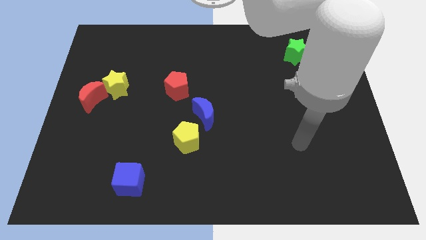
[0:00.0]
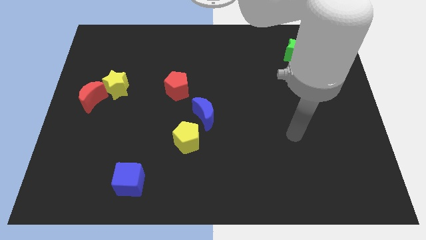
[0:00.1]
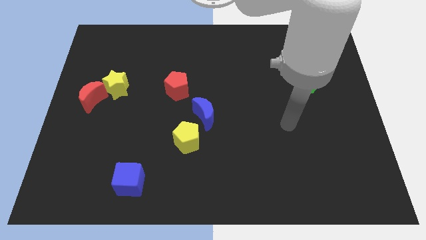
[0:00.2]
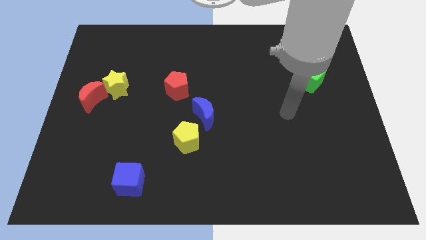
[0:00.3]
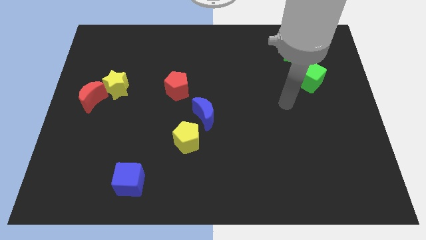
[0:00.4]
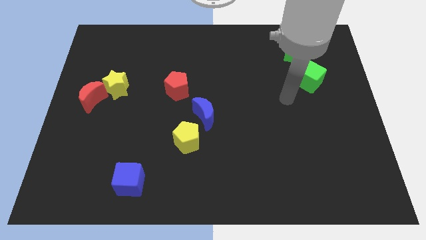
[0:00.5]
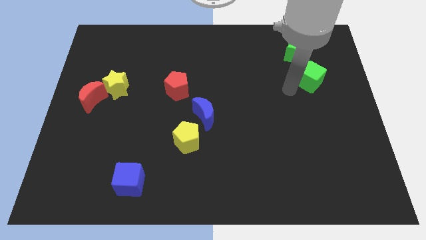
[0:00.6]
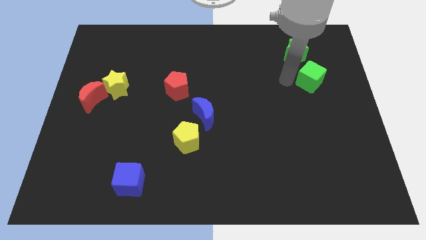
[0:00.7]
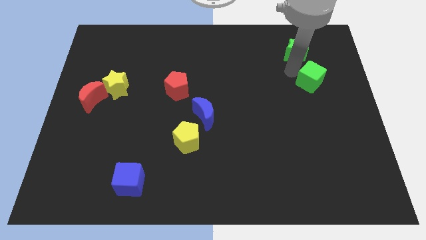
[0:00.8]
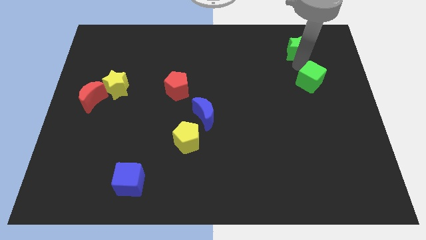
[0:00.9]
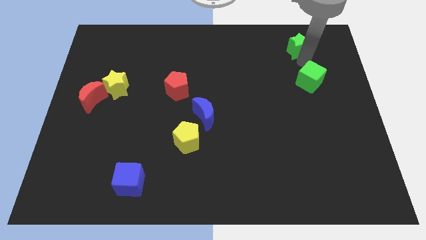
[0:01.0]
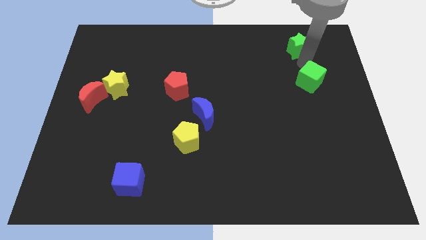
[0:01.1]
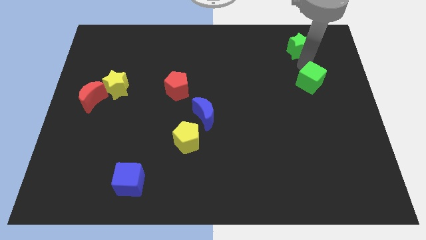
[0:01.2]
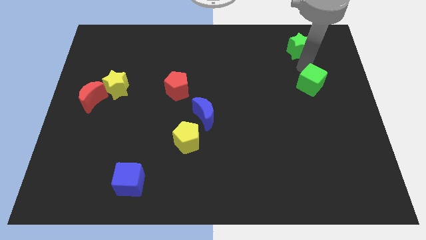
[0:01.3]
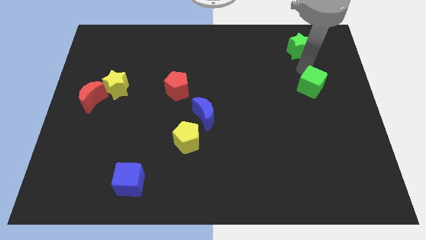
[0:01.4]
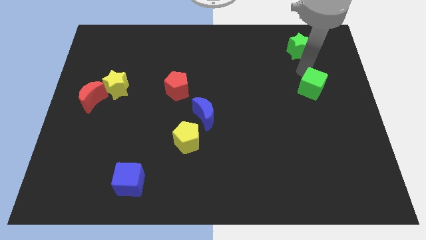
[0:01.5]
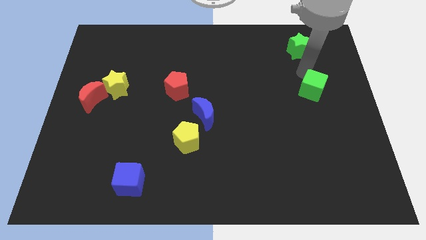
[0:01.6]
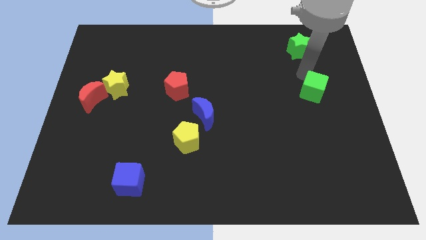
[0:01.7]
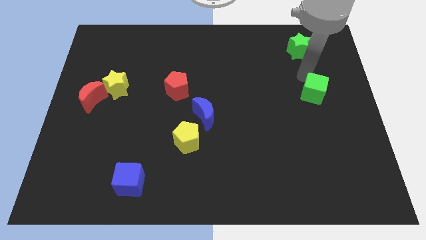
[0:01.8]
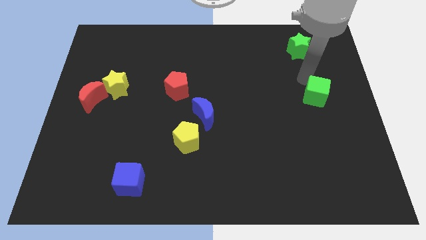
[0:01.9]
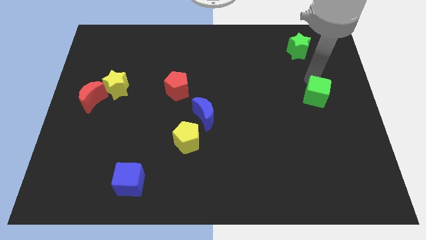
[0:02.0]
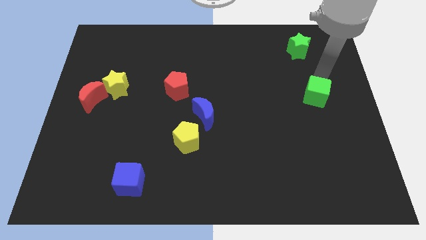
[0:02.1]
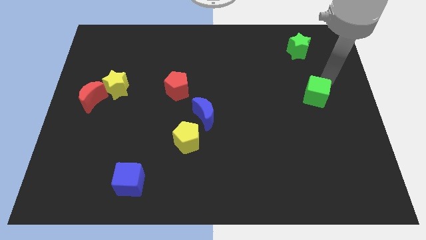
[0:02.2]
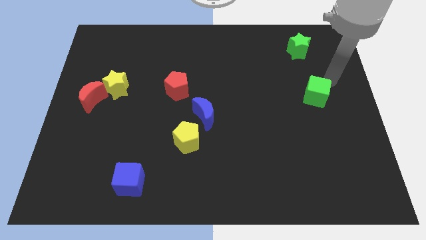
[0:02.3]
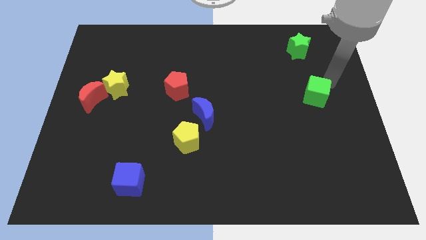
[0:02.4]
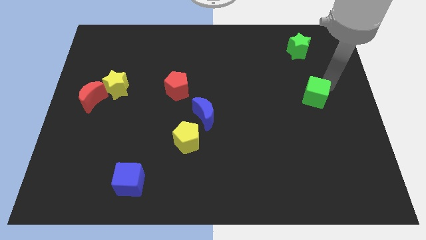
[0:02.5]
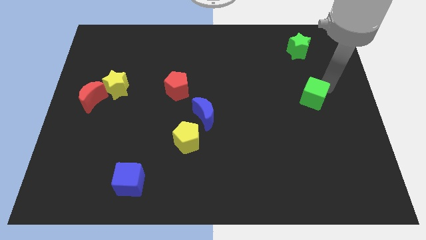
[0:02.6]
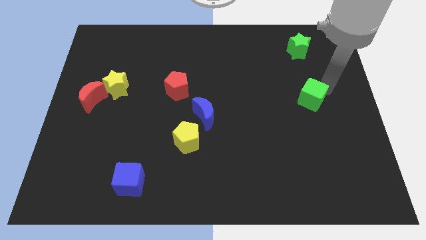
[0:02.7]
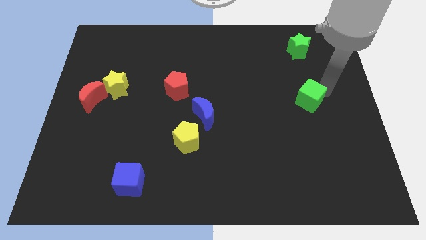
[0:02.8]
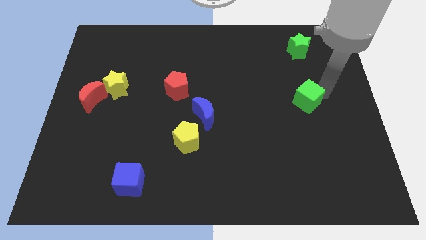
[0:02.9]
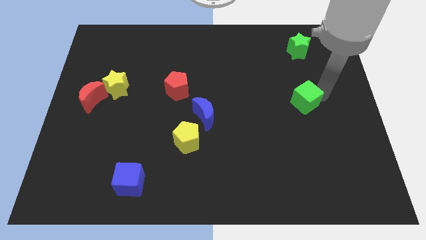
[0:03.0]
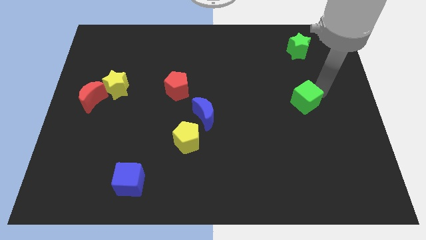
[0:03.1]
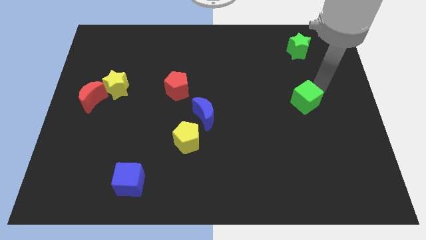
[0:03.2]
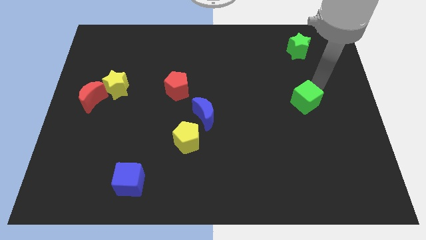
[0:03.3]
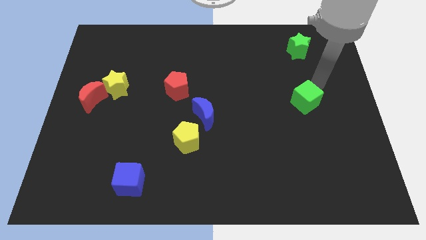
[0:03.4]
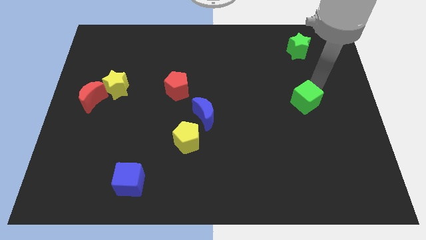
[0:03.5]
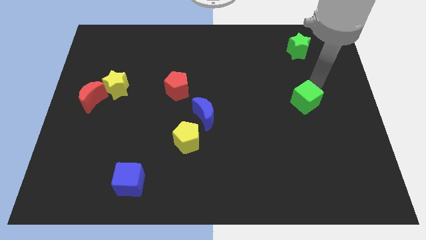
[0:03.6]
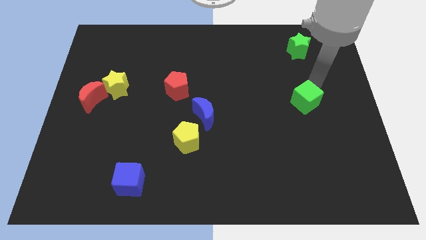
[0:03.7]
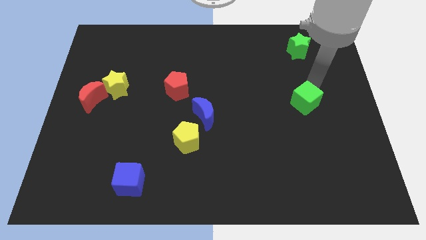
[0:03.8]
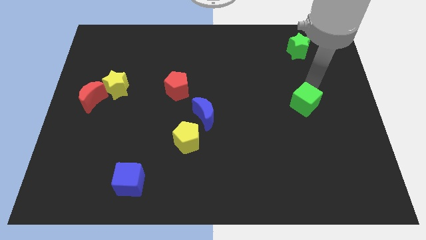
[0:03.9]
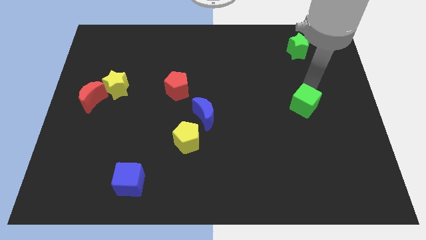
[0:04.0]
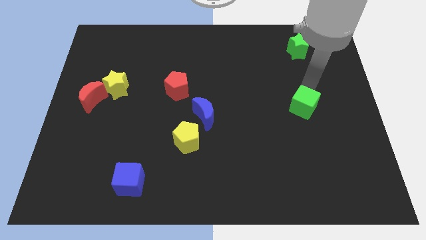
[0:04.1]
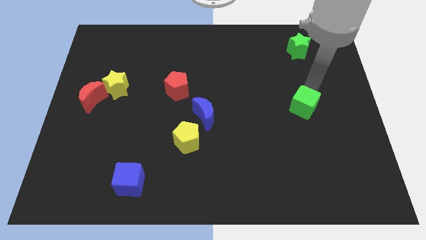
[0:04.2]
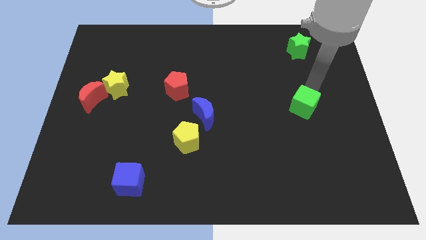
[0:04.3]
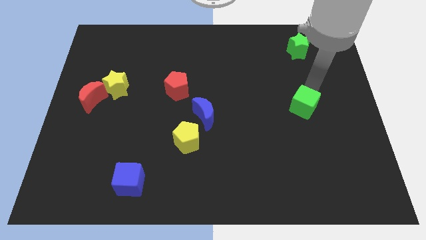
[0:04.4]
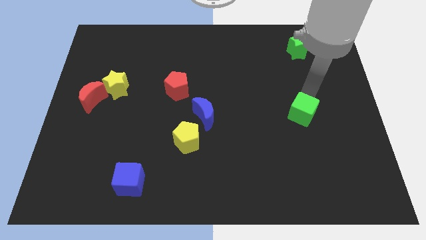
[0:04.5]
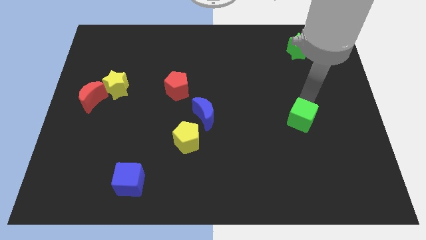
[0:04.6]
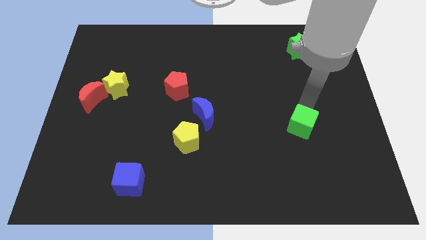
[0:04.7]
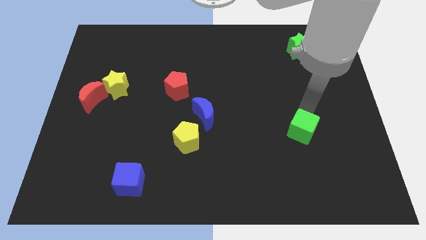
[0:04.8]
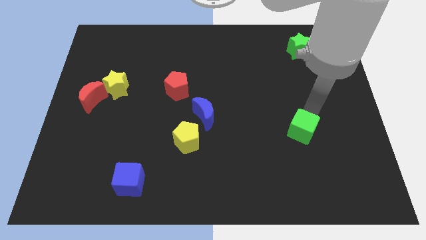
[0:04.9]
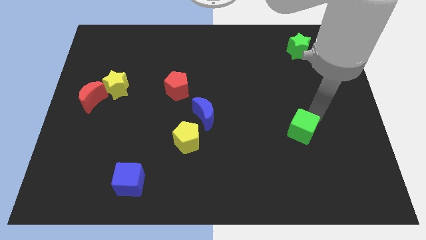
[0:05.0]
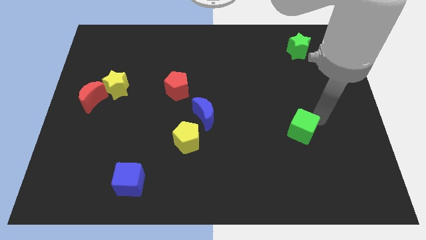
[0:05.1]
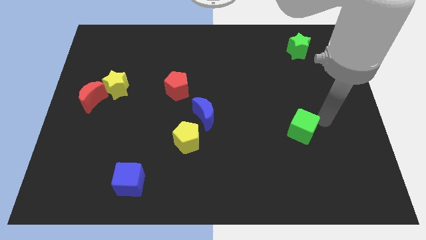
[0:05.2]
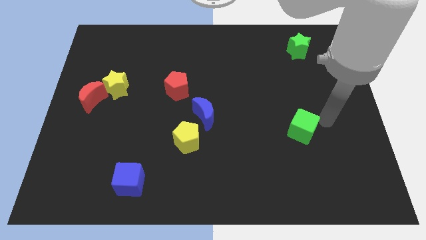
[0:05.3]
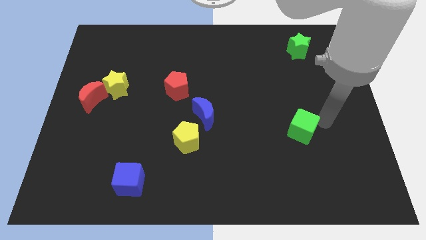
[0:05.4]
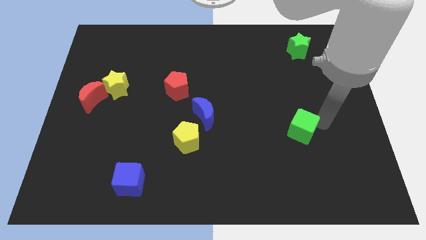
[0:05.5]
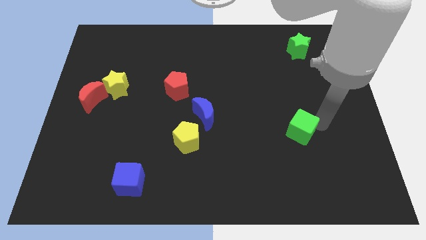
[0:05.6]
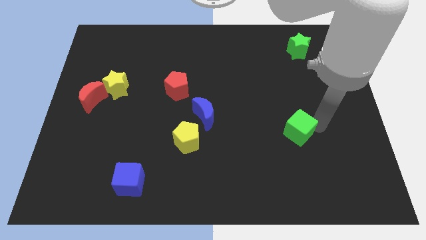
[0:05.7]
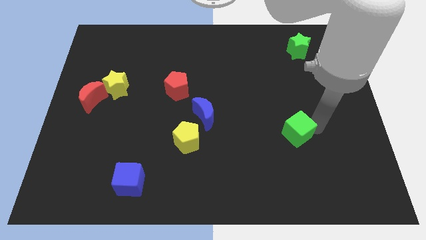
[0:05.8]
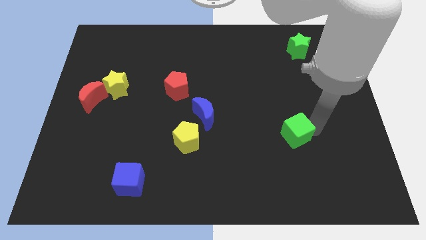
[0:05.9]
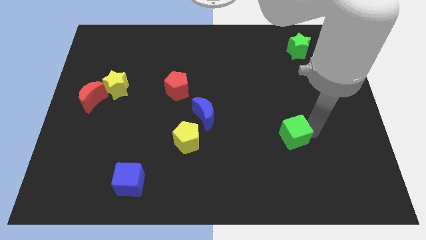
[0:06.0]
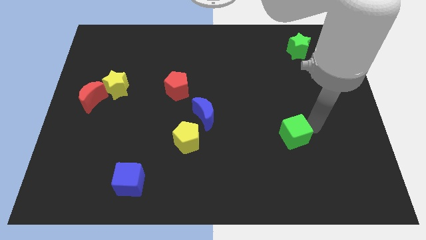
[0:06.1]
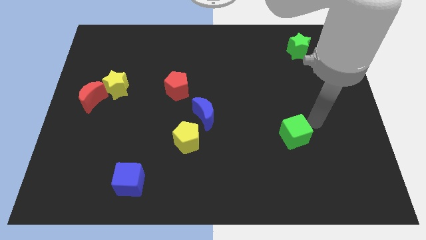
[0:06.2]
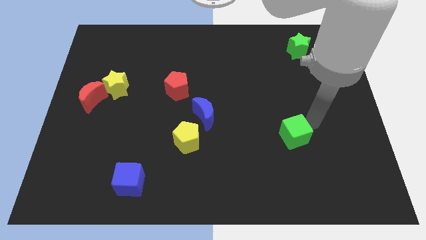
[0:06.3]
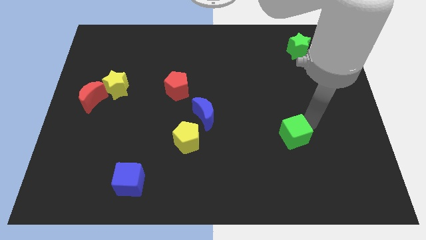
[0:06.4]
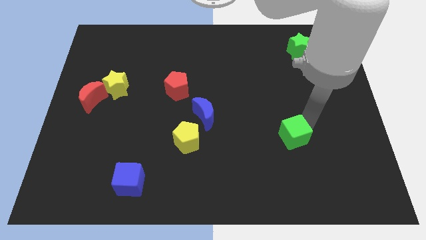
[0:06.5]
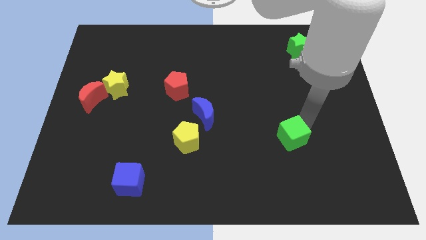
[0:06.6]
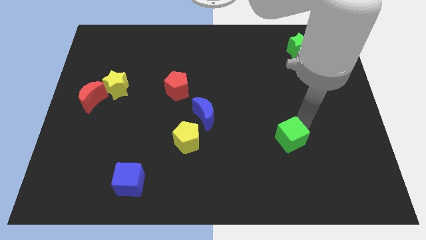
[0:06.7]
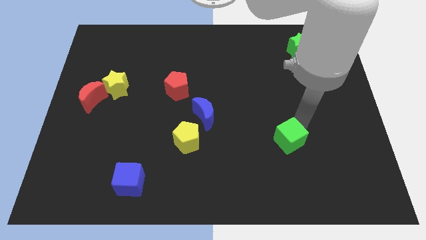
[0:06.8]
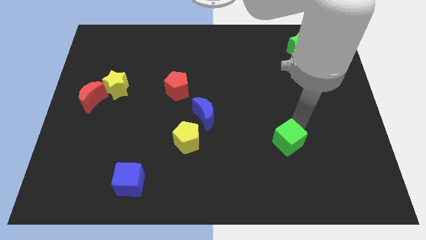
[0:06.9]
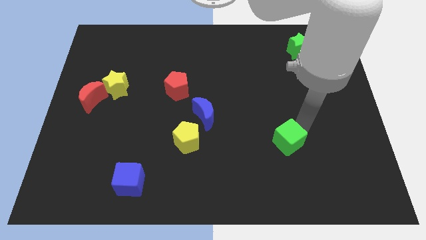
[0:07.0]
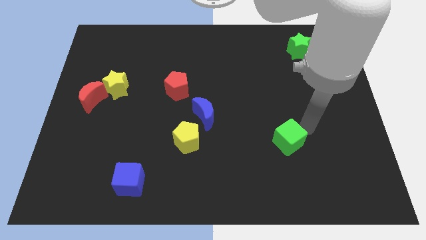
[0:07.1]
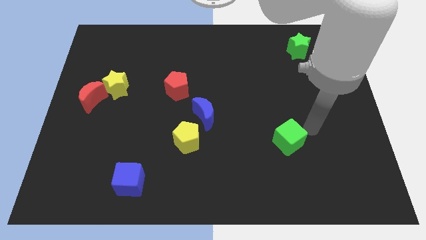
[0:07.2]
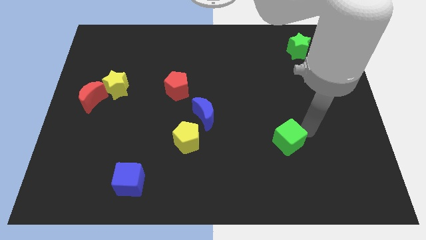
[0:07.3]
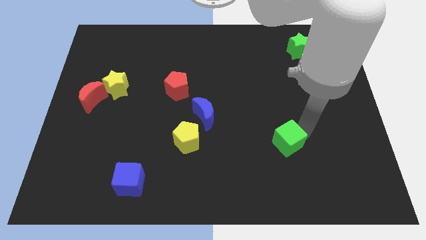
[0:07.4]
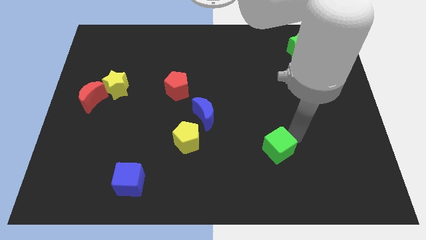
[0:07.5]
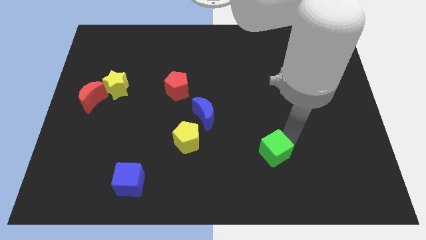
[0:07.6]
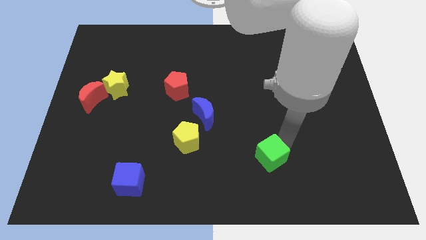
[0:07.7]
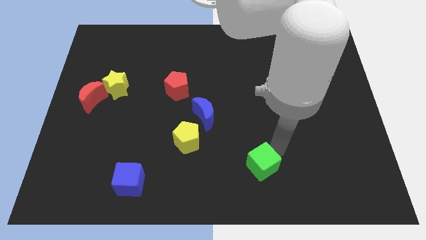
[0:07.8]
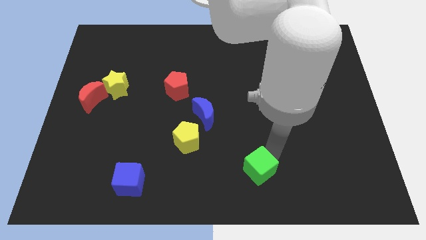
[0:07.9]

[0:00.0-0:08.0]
slide the green cube to the bottom
